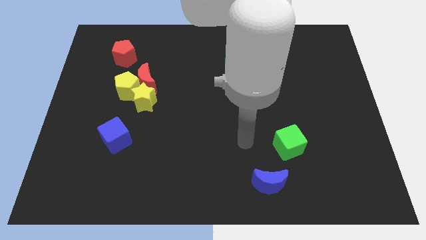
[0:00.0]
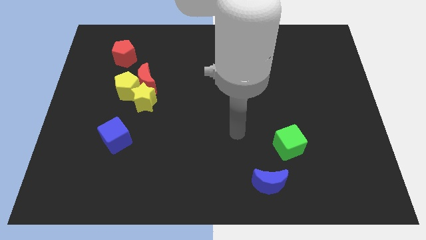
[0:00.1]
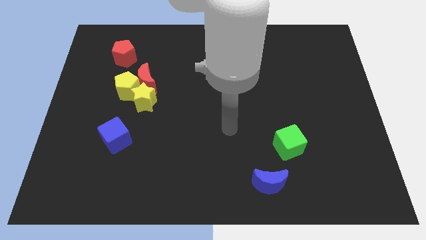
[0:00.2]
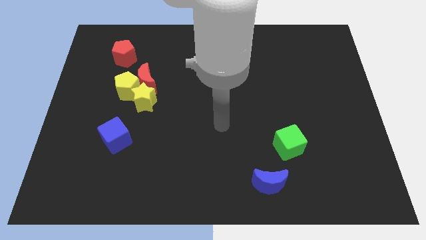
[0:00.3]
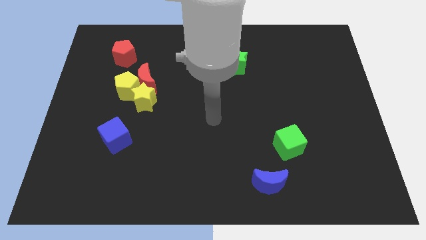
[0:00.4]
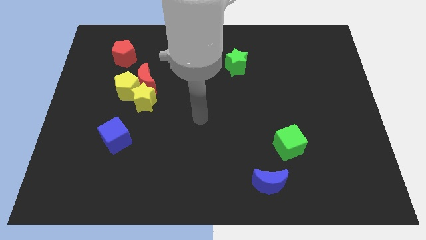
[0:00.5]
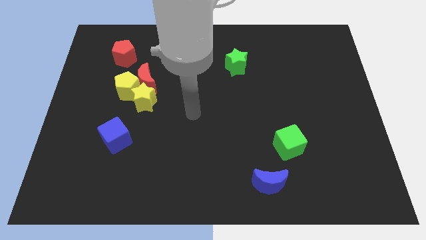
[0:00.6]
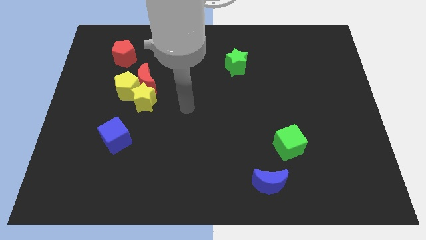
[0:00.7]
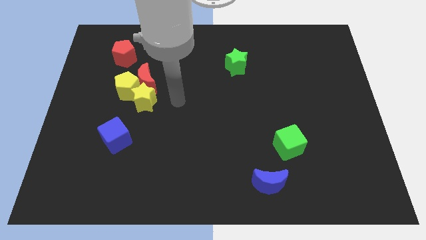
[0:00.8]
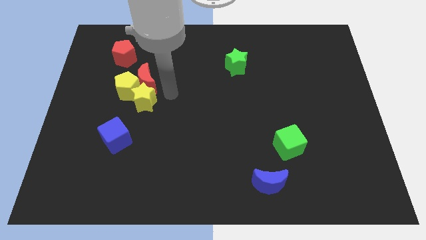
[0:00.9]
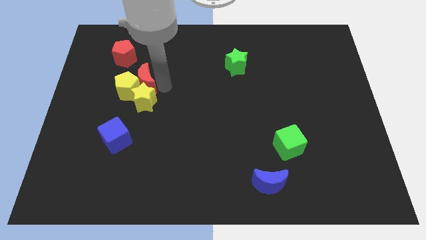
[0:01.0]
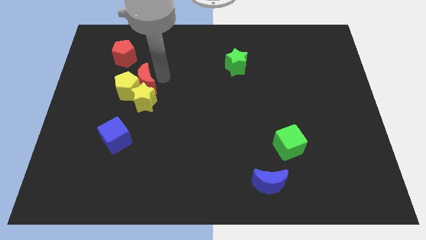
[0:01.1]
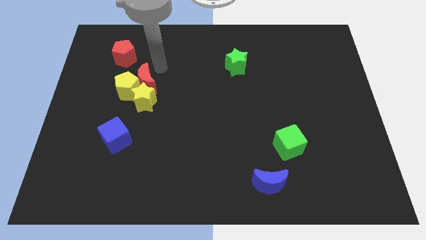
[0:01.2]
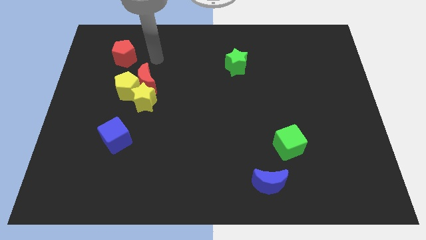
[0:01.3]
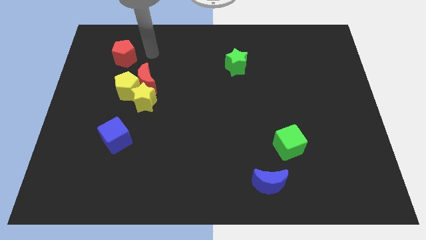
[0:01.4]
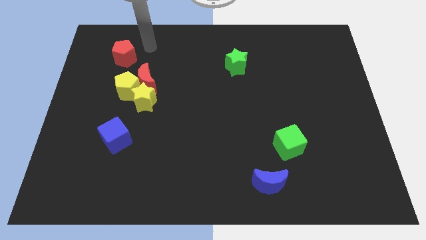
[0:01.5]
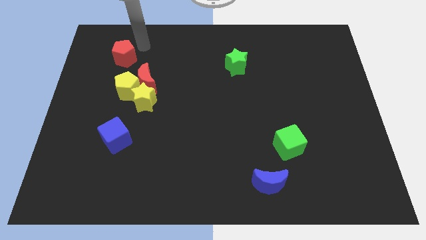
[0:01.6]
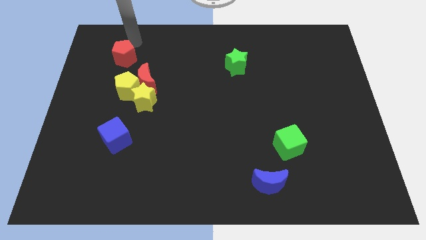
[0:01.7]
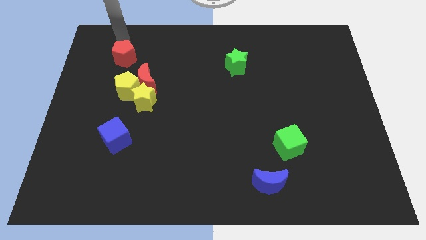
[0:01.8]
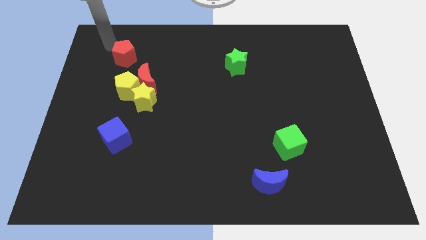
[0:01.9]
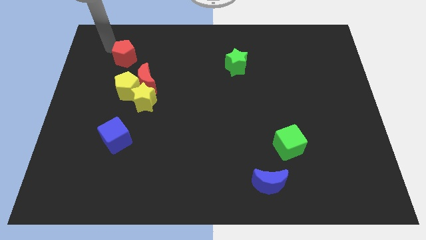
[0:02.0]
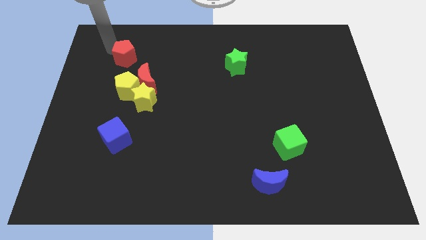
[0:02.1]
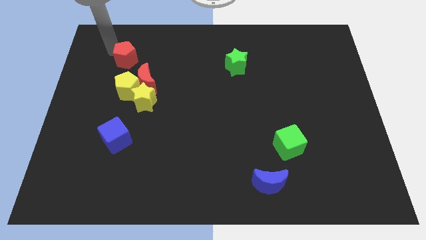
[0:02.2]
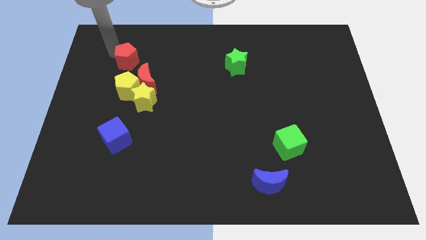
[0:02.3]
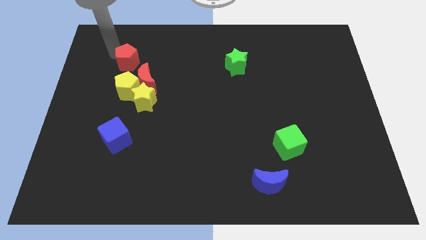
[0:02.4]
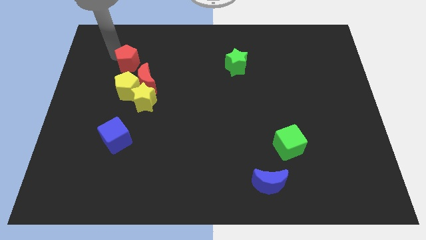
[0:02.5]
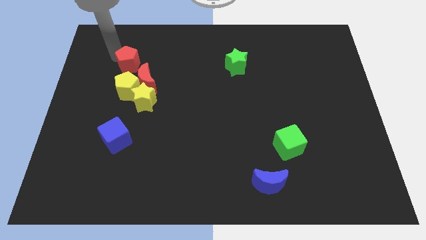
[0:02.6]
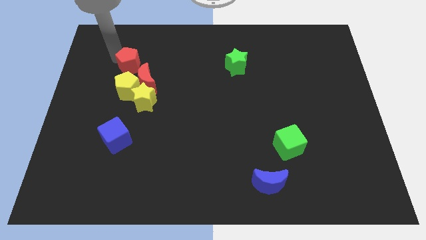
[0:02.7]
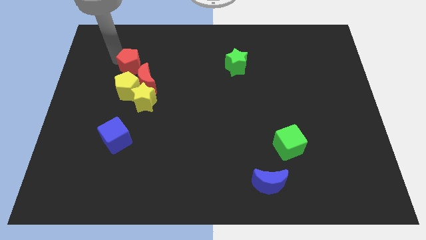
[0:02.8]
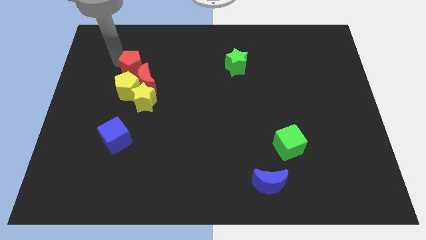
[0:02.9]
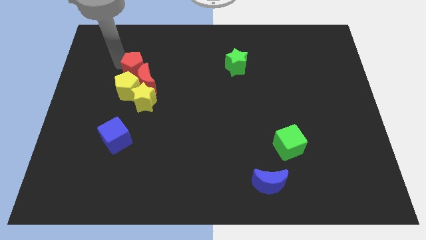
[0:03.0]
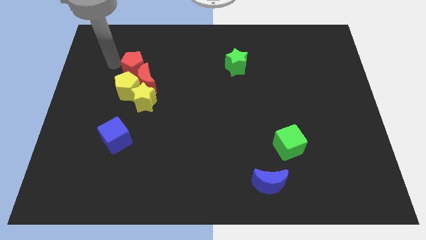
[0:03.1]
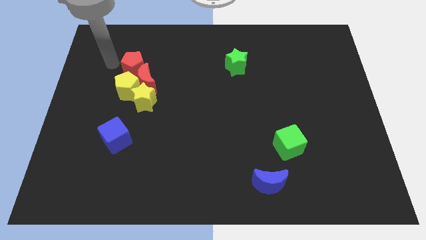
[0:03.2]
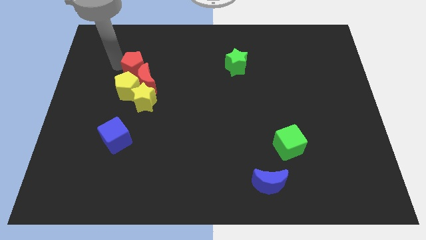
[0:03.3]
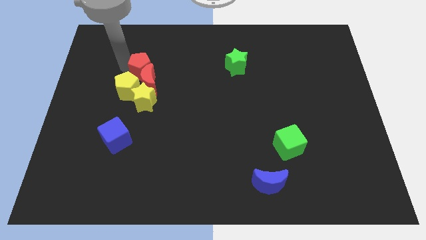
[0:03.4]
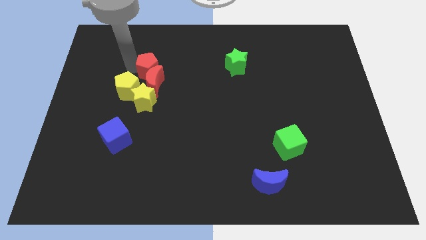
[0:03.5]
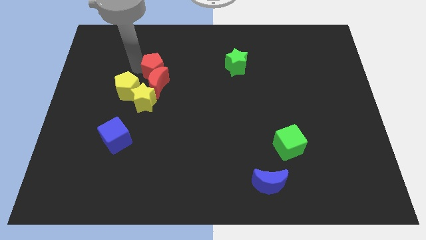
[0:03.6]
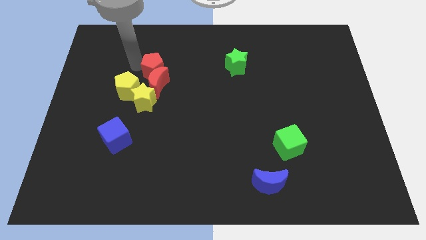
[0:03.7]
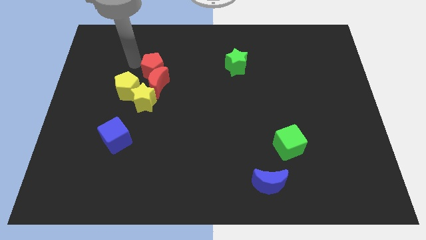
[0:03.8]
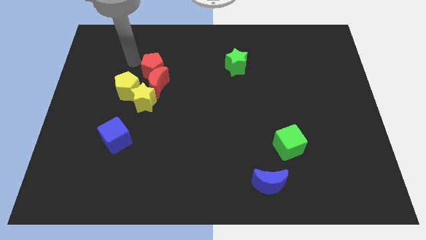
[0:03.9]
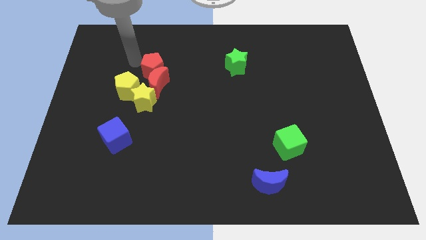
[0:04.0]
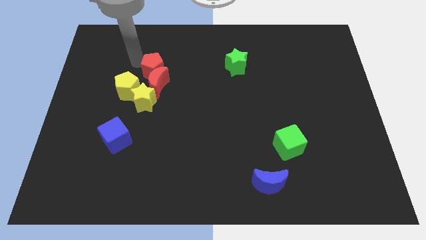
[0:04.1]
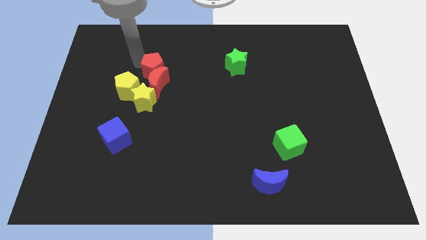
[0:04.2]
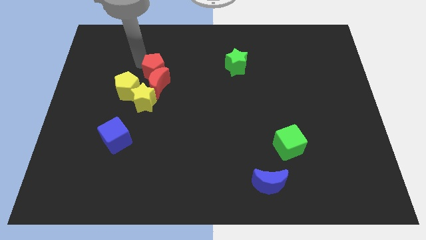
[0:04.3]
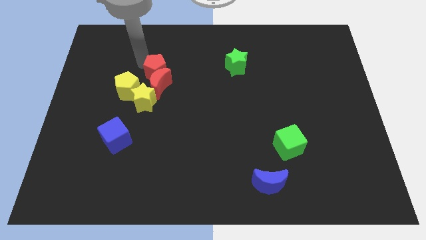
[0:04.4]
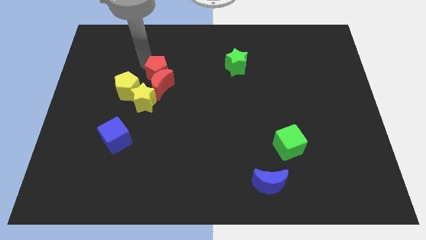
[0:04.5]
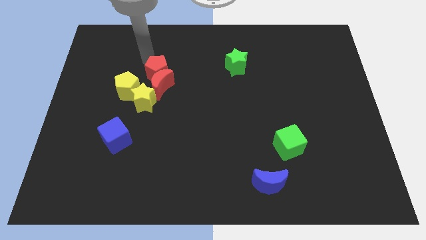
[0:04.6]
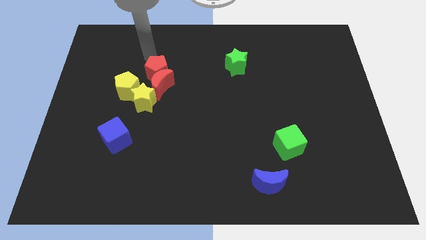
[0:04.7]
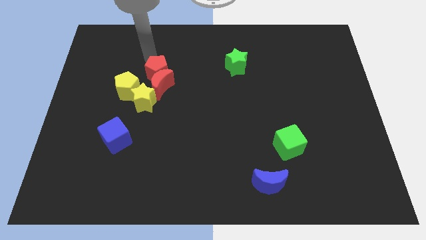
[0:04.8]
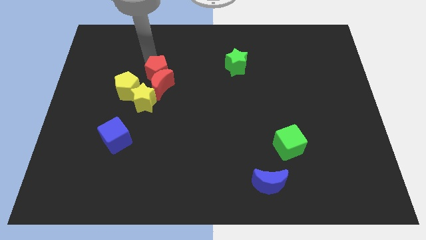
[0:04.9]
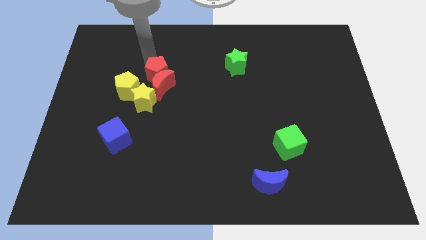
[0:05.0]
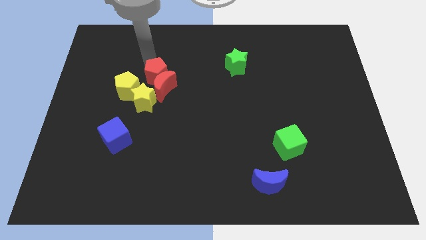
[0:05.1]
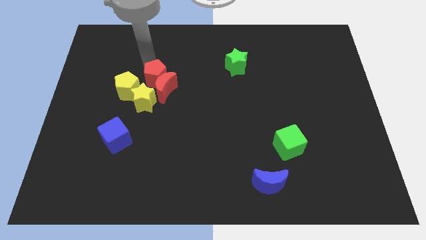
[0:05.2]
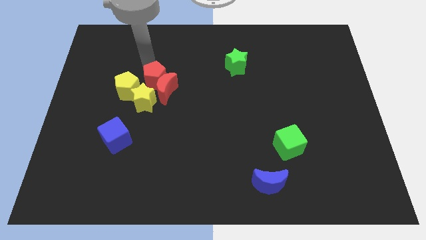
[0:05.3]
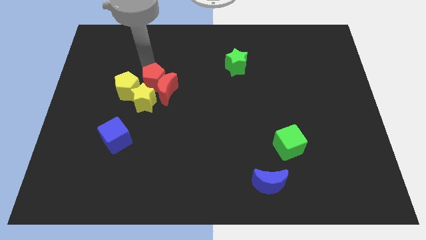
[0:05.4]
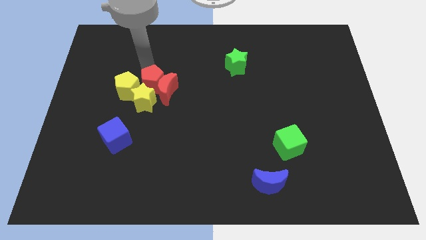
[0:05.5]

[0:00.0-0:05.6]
slide the red pentagon next to the yellow star

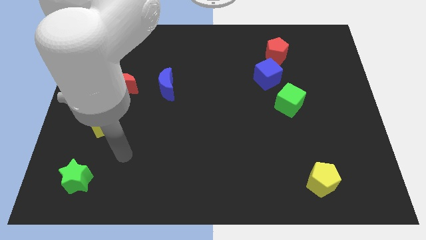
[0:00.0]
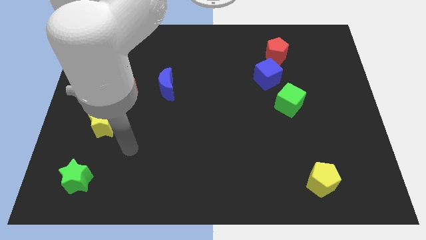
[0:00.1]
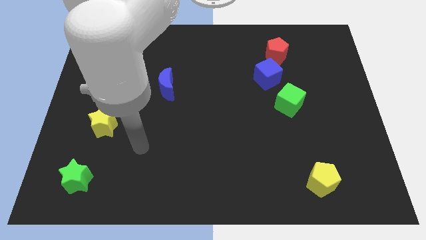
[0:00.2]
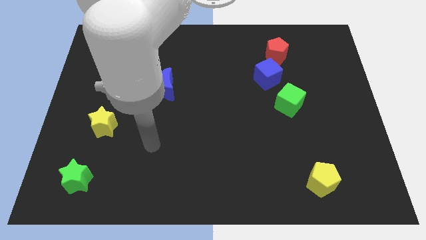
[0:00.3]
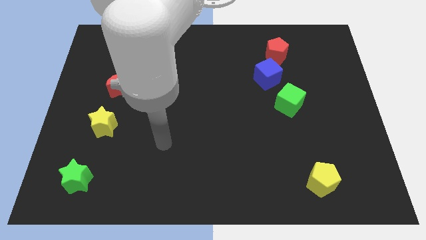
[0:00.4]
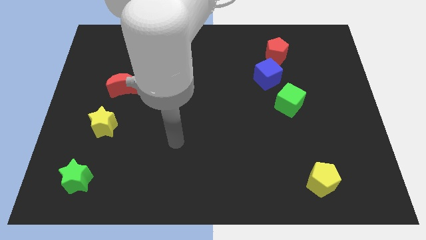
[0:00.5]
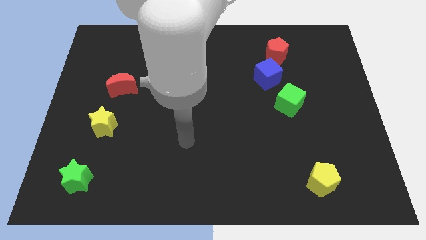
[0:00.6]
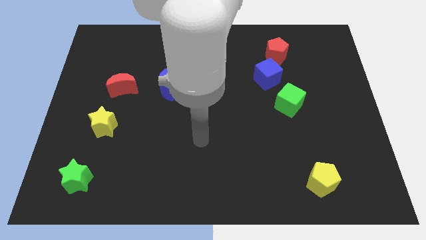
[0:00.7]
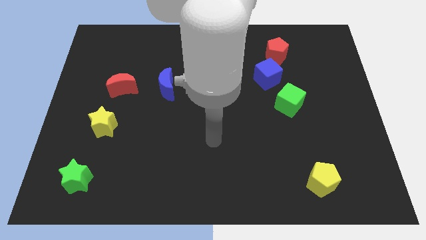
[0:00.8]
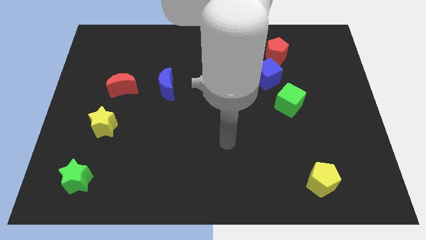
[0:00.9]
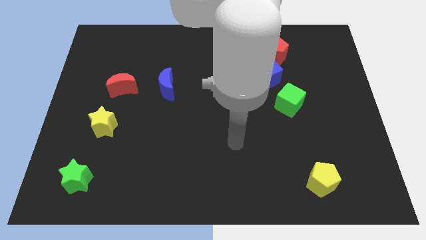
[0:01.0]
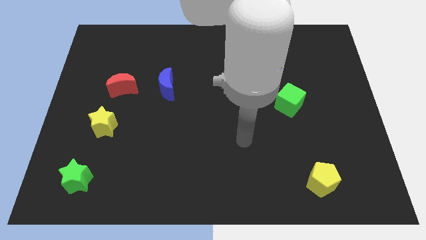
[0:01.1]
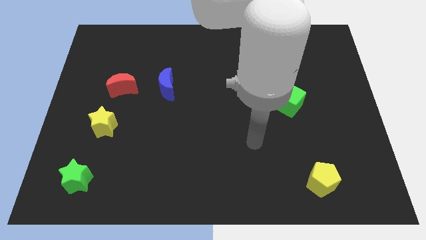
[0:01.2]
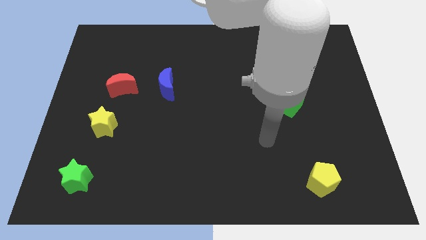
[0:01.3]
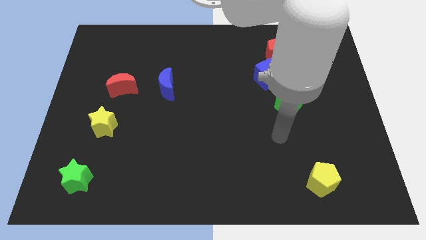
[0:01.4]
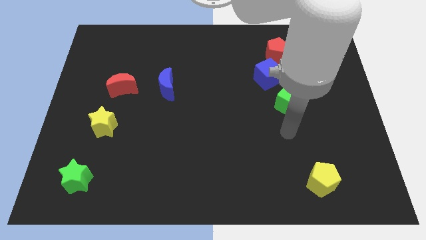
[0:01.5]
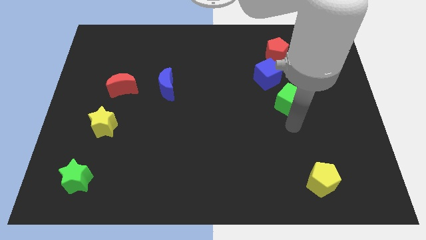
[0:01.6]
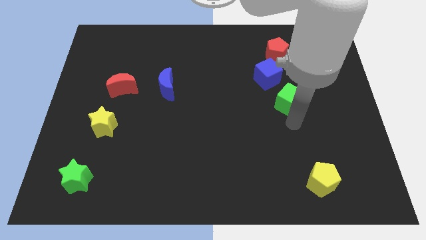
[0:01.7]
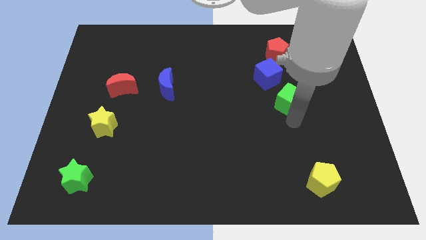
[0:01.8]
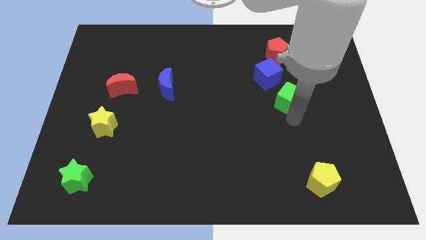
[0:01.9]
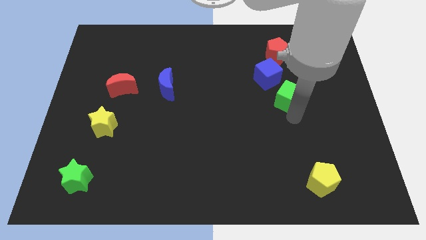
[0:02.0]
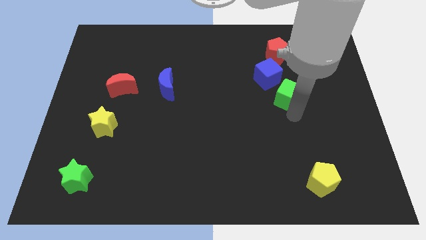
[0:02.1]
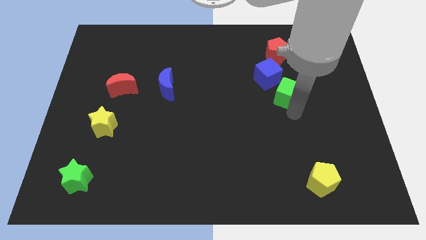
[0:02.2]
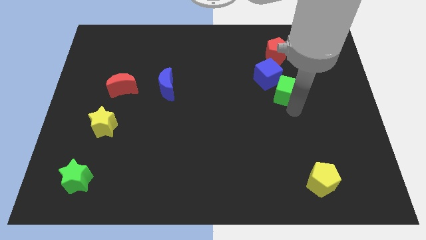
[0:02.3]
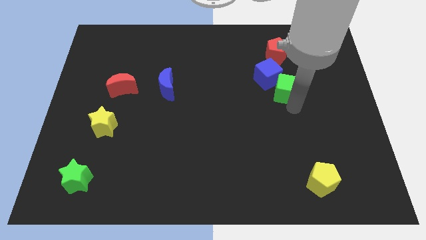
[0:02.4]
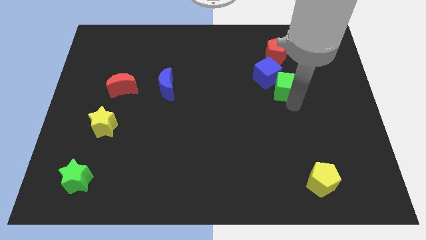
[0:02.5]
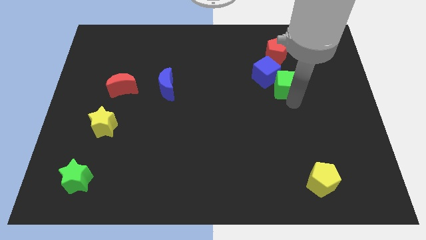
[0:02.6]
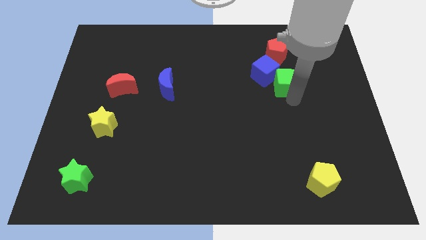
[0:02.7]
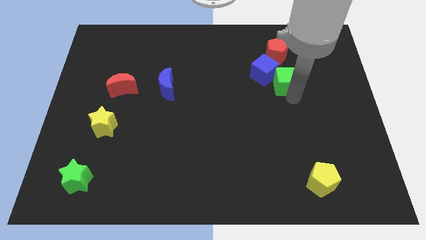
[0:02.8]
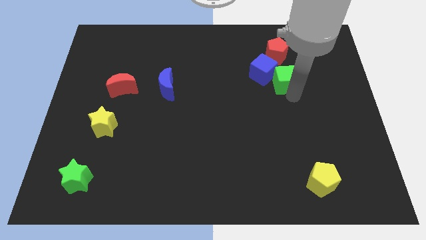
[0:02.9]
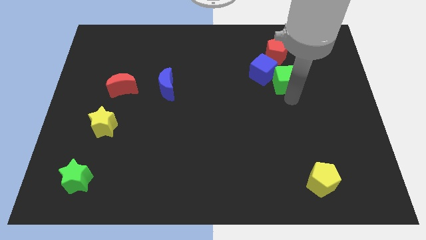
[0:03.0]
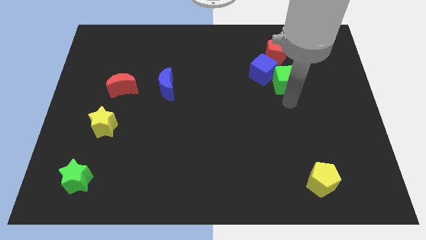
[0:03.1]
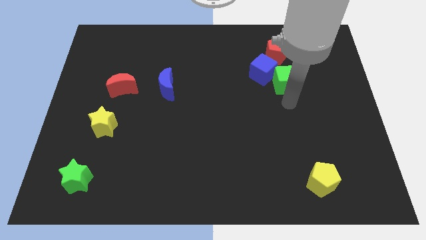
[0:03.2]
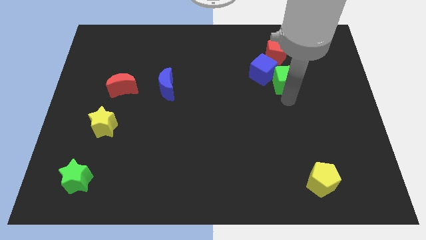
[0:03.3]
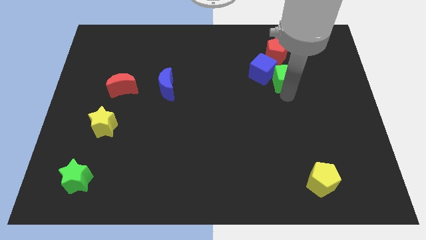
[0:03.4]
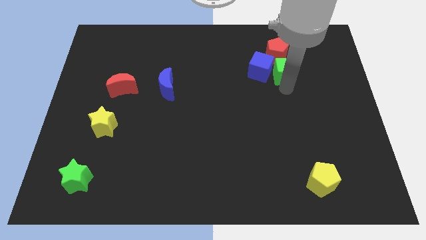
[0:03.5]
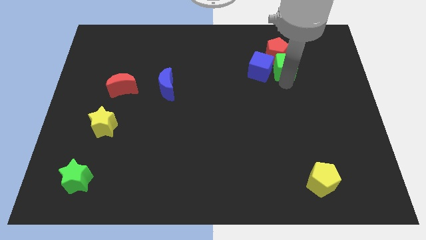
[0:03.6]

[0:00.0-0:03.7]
slide the green cube towards the red pentagon
